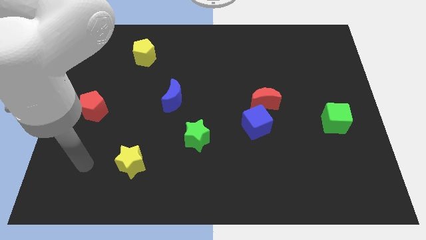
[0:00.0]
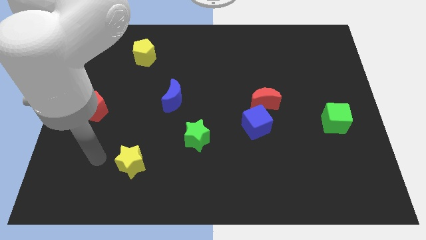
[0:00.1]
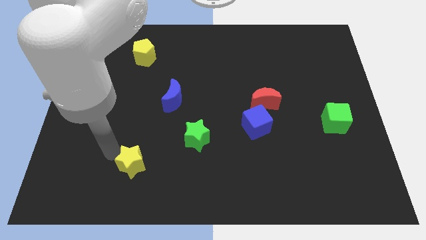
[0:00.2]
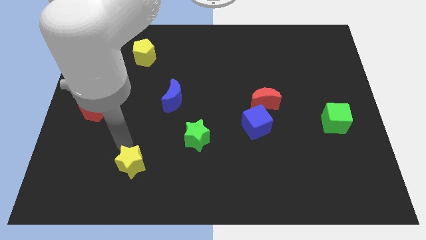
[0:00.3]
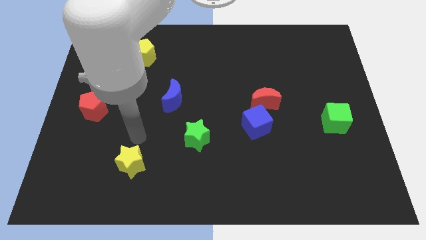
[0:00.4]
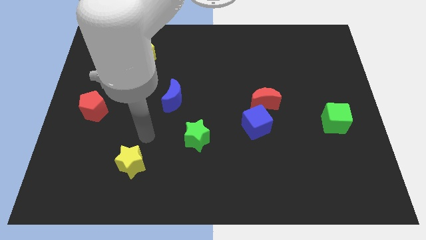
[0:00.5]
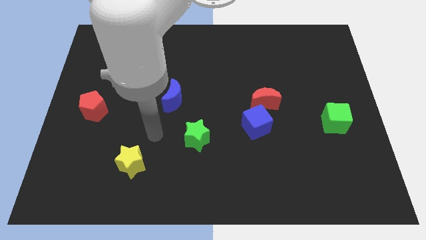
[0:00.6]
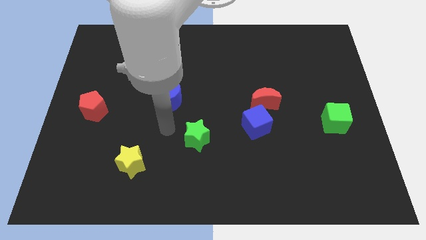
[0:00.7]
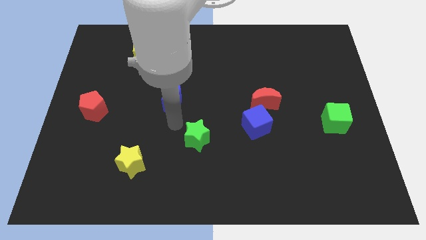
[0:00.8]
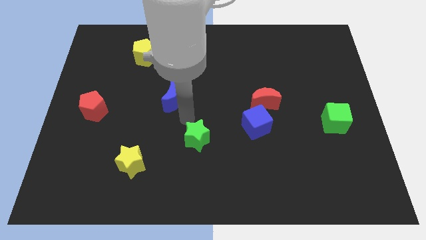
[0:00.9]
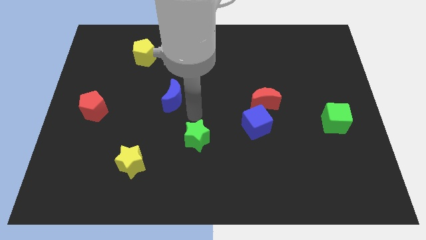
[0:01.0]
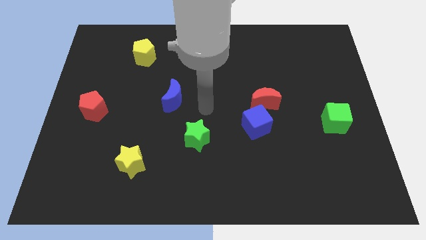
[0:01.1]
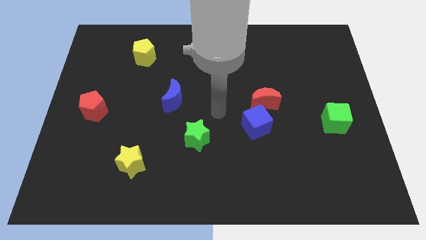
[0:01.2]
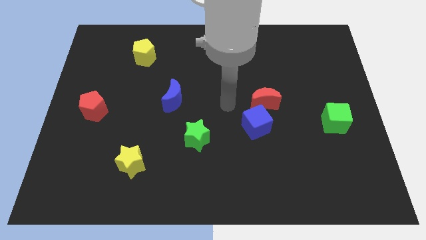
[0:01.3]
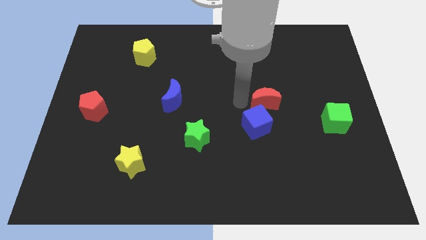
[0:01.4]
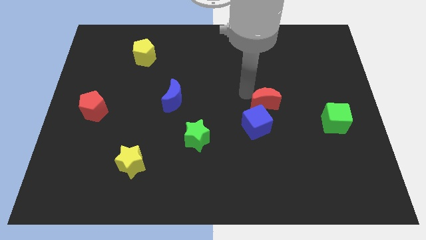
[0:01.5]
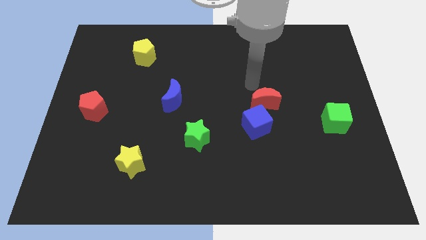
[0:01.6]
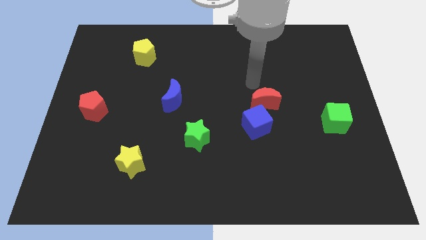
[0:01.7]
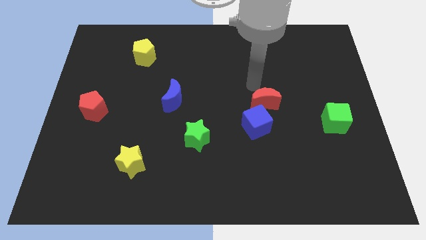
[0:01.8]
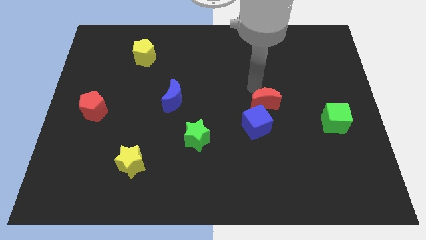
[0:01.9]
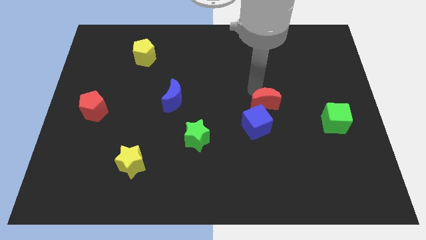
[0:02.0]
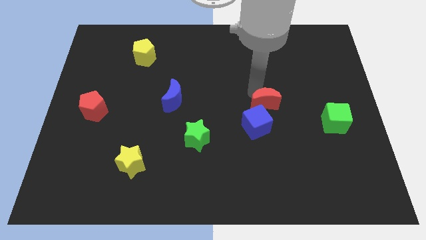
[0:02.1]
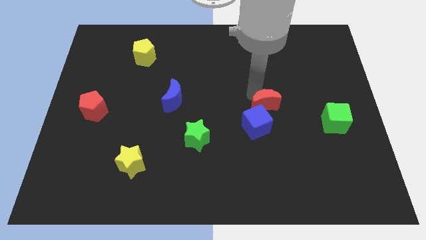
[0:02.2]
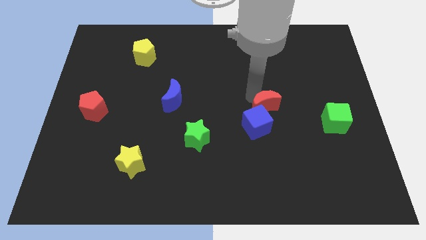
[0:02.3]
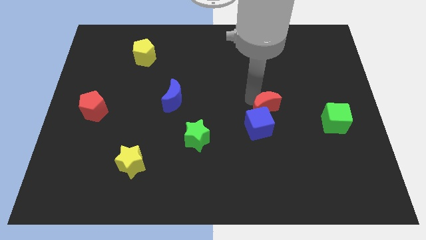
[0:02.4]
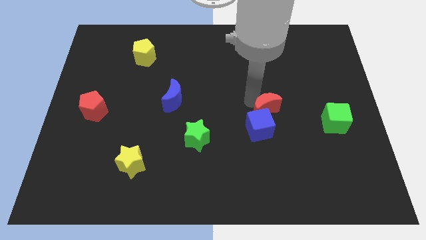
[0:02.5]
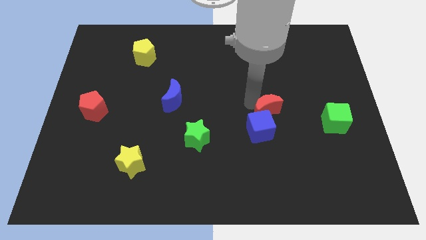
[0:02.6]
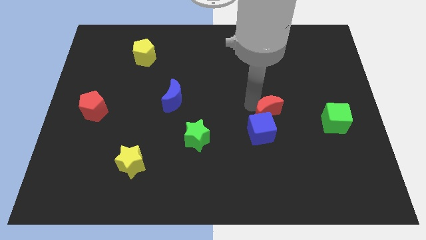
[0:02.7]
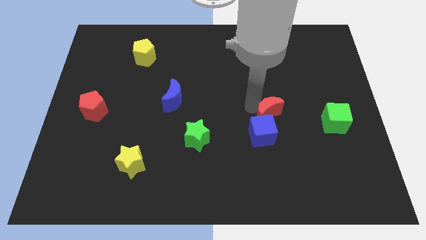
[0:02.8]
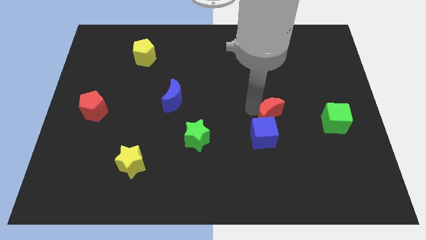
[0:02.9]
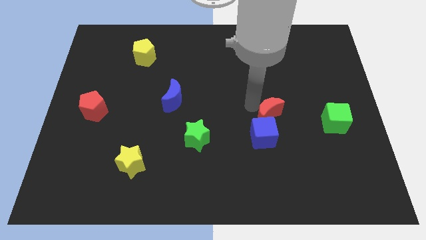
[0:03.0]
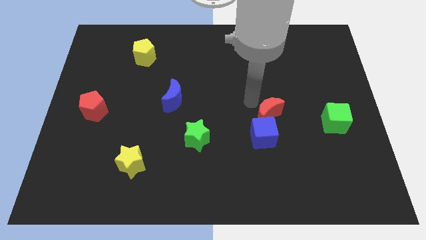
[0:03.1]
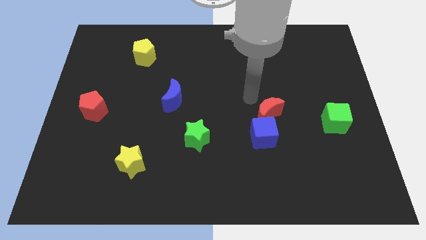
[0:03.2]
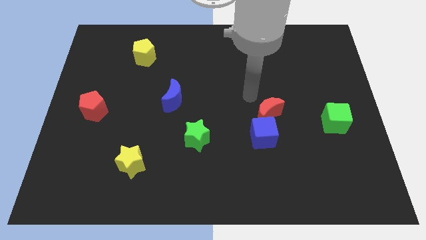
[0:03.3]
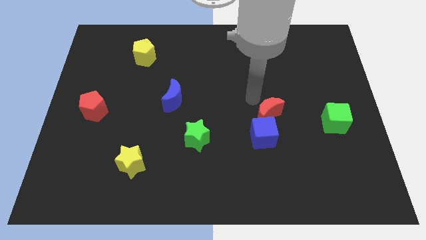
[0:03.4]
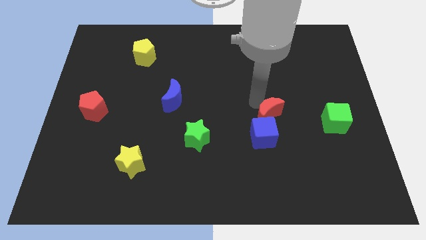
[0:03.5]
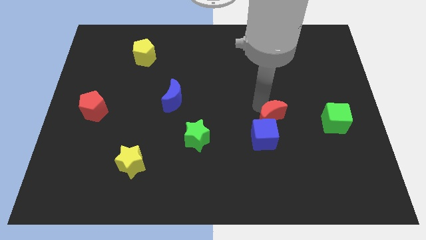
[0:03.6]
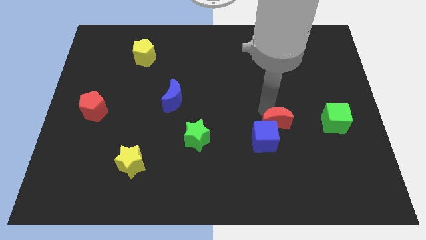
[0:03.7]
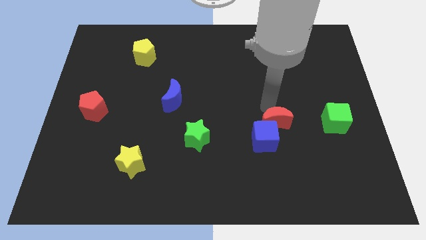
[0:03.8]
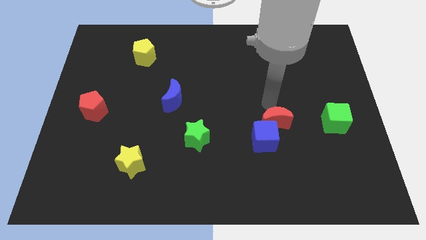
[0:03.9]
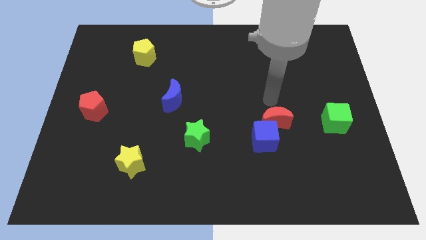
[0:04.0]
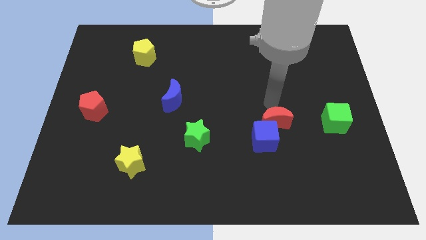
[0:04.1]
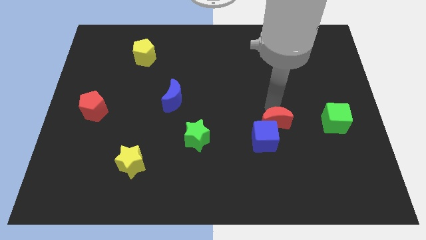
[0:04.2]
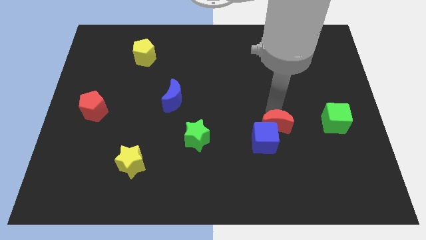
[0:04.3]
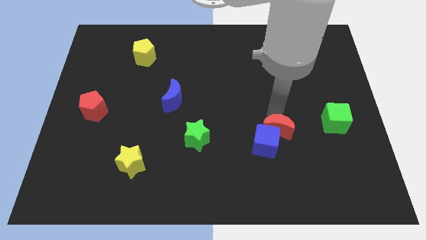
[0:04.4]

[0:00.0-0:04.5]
slide the red moon downwards a little bit

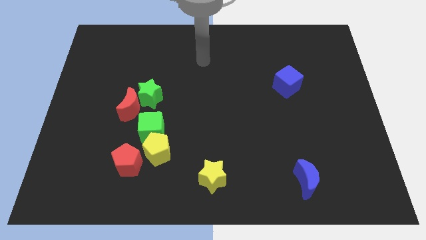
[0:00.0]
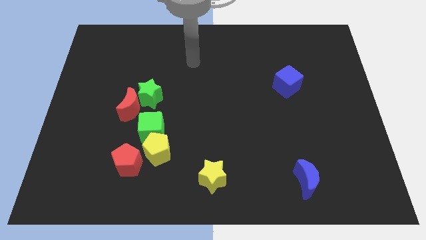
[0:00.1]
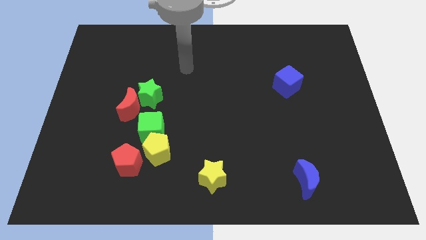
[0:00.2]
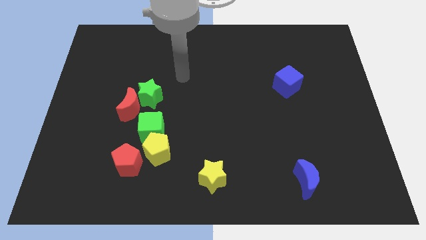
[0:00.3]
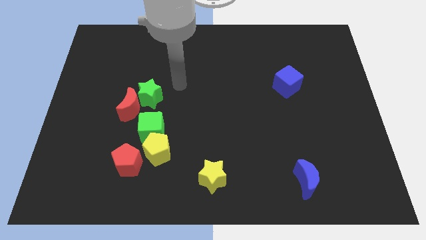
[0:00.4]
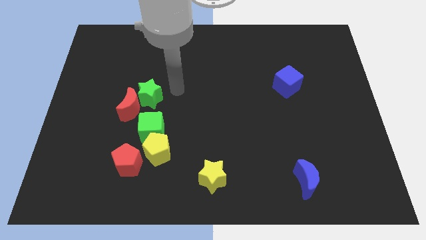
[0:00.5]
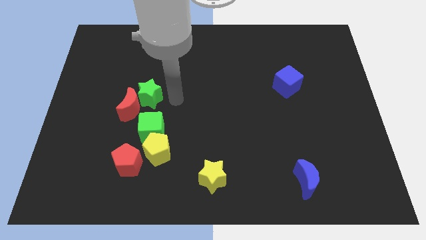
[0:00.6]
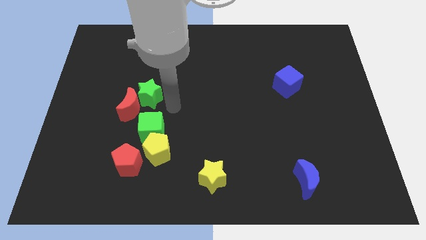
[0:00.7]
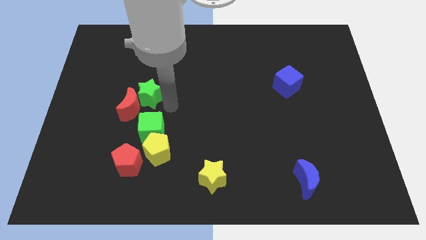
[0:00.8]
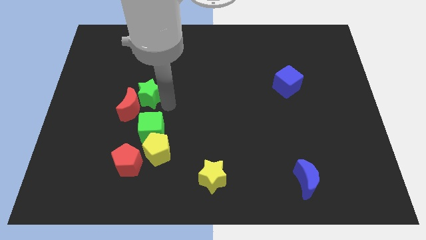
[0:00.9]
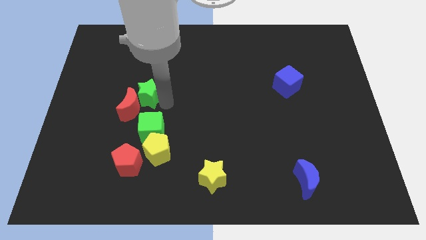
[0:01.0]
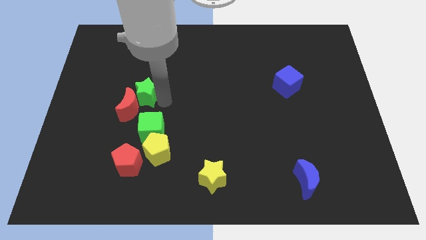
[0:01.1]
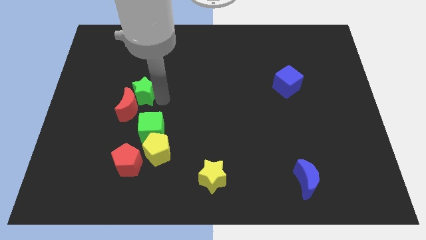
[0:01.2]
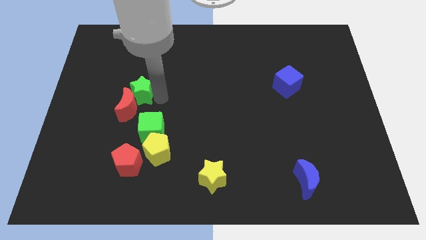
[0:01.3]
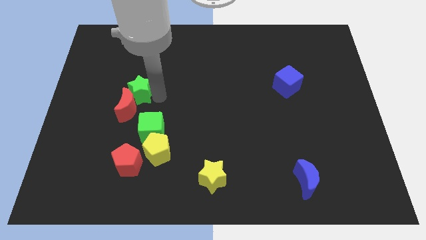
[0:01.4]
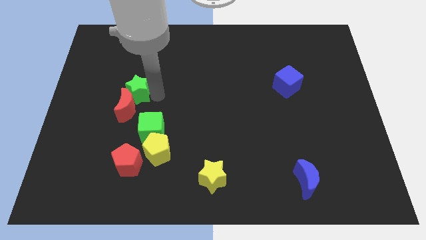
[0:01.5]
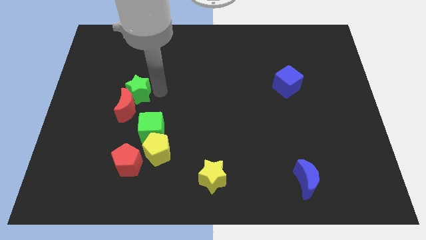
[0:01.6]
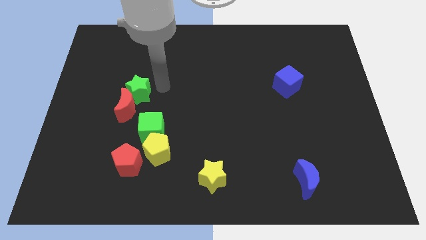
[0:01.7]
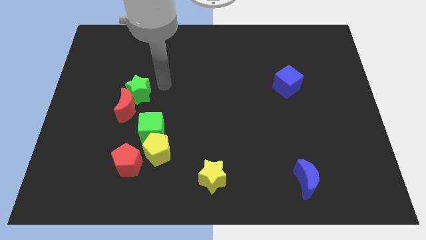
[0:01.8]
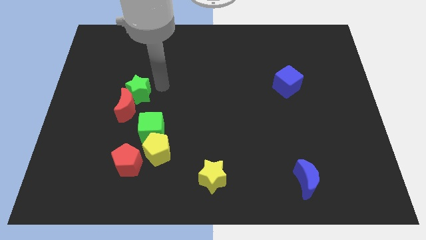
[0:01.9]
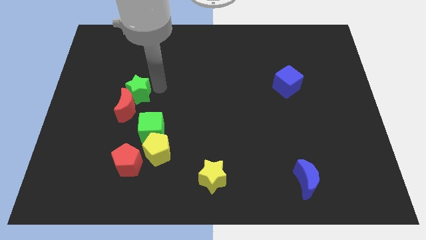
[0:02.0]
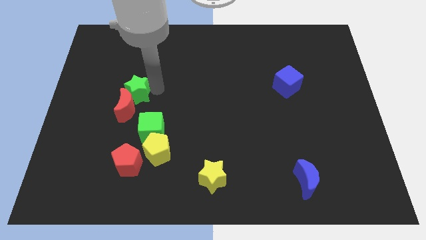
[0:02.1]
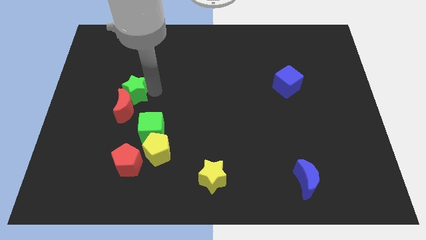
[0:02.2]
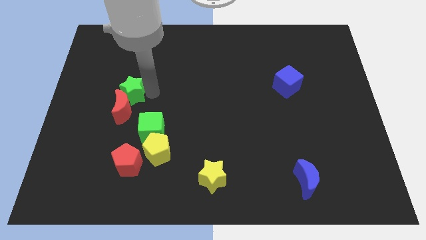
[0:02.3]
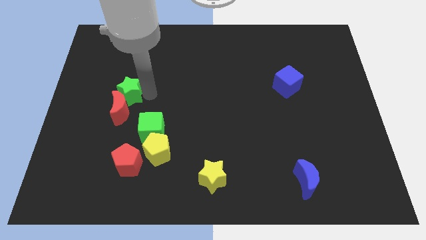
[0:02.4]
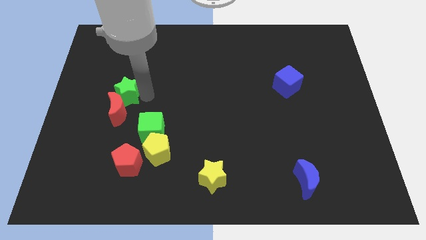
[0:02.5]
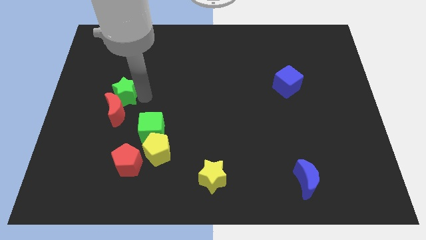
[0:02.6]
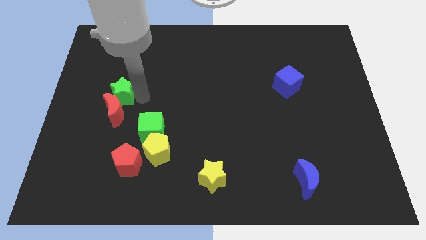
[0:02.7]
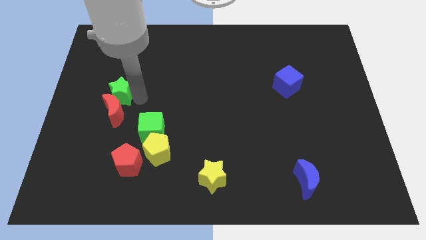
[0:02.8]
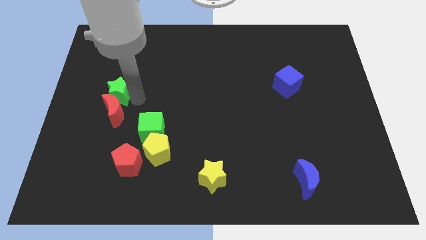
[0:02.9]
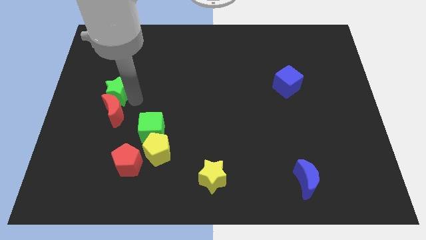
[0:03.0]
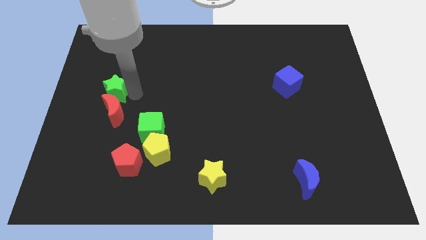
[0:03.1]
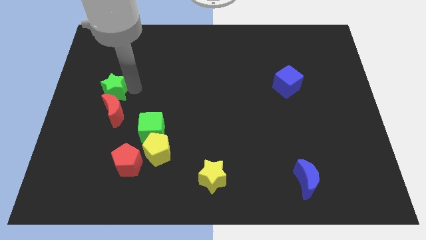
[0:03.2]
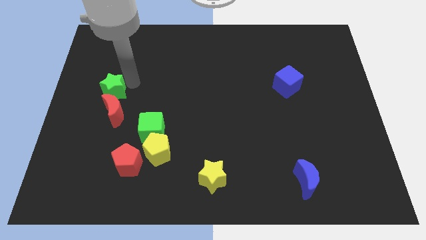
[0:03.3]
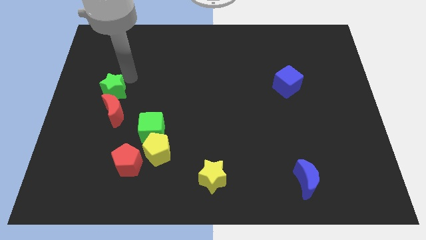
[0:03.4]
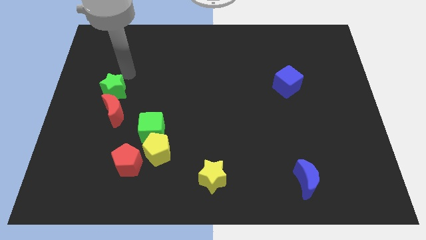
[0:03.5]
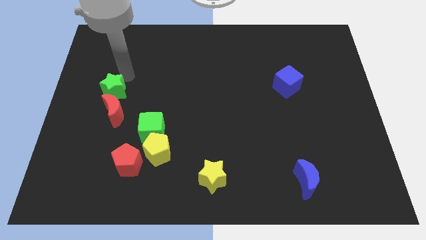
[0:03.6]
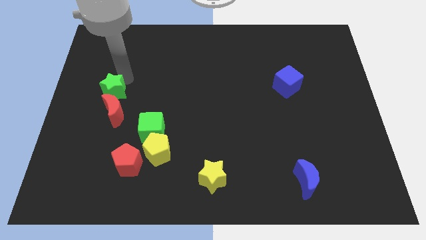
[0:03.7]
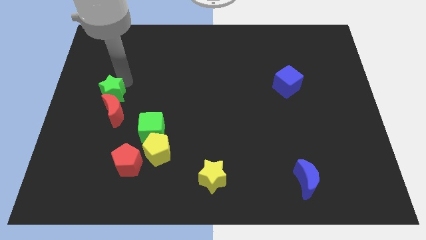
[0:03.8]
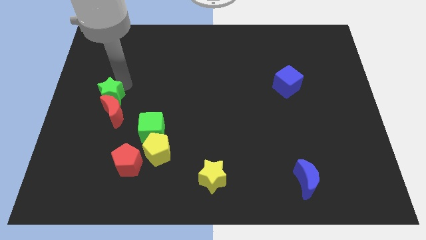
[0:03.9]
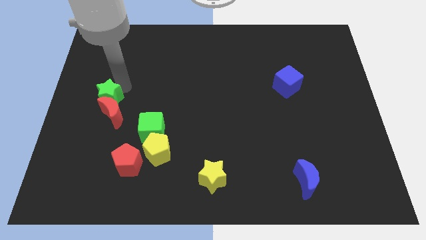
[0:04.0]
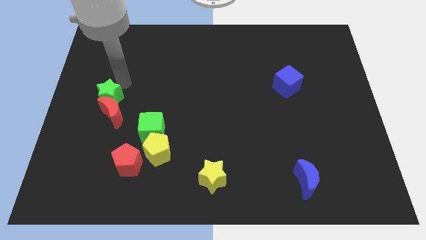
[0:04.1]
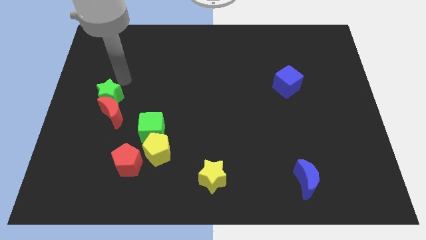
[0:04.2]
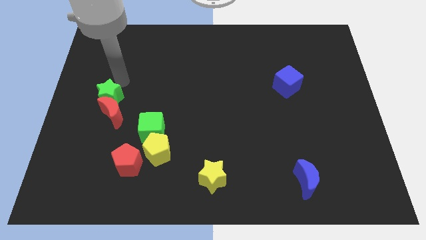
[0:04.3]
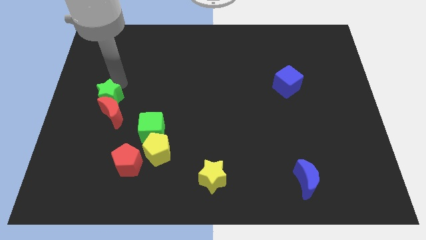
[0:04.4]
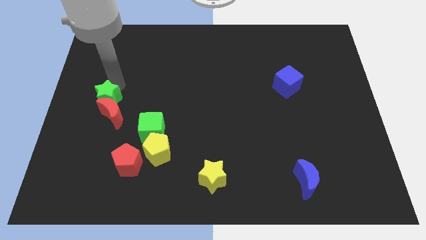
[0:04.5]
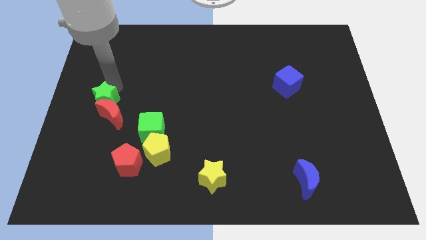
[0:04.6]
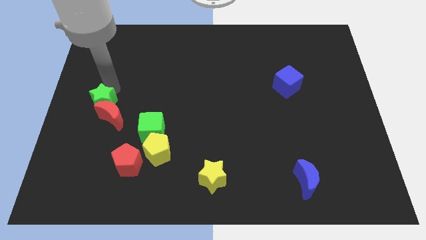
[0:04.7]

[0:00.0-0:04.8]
push the green star a little downwards and left diagonally
